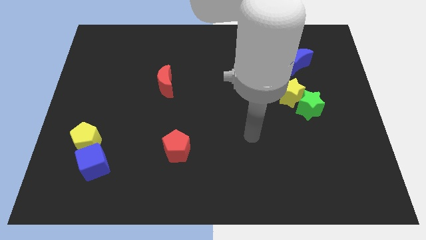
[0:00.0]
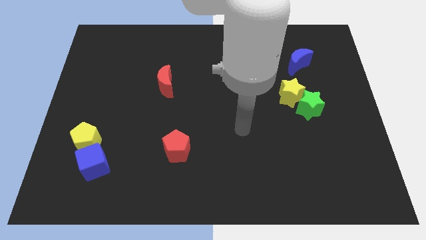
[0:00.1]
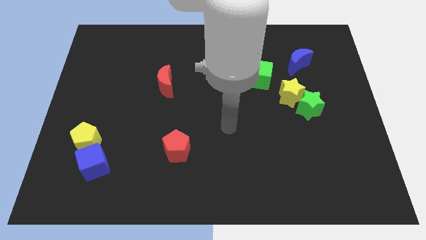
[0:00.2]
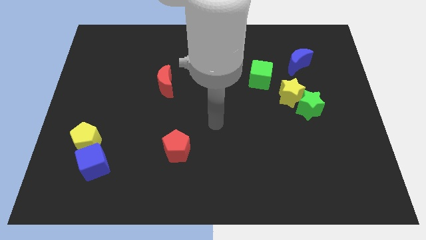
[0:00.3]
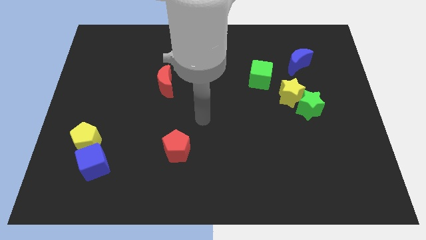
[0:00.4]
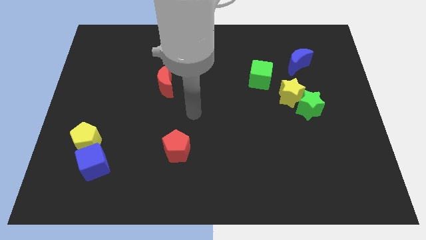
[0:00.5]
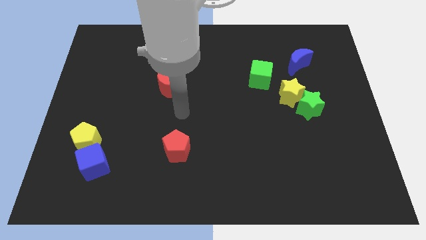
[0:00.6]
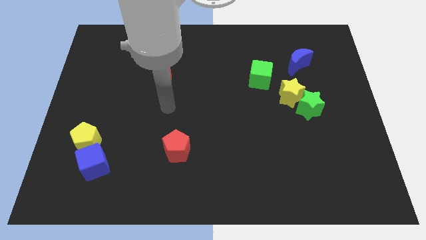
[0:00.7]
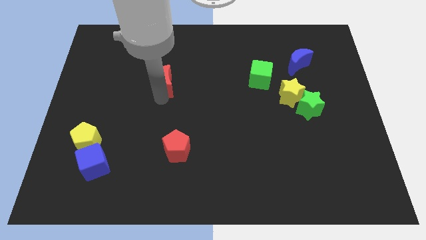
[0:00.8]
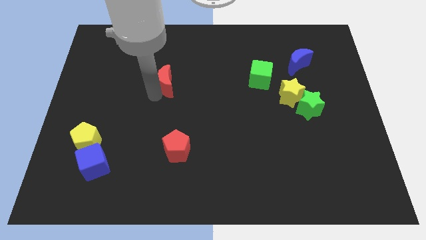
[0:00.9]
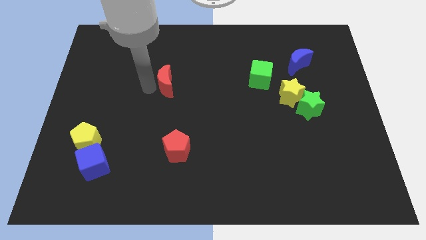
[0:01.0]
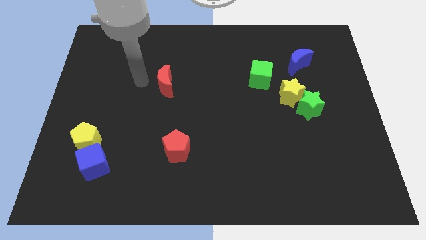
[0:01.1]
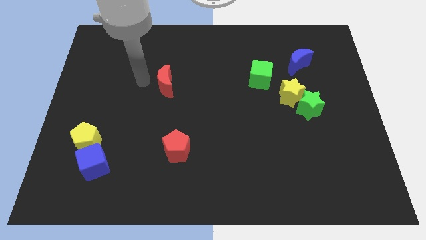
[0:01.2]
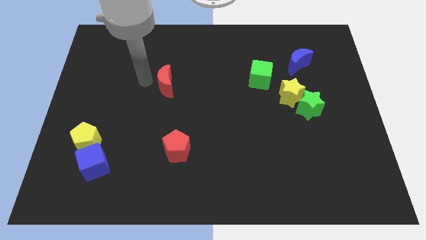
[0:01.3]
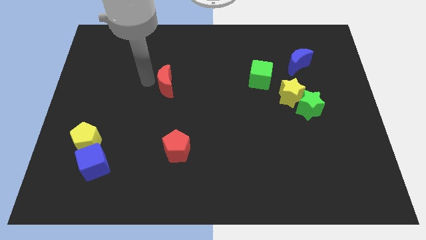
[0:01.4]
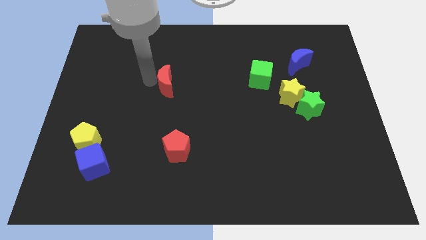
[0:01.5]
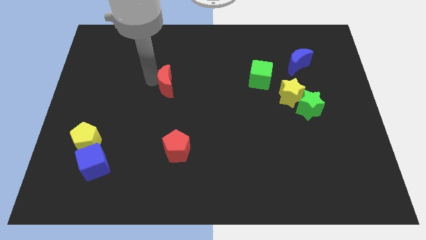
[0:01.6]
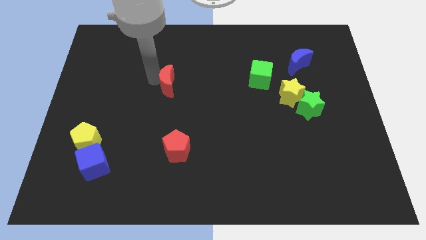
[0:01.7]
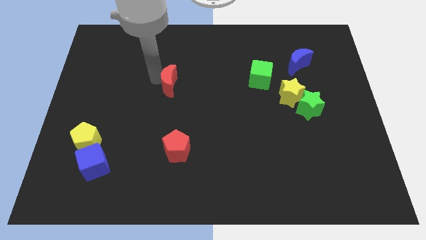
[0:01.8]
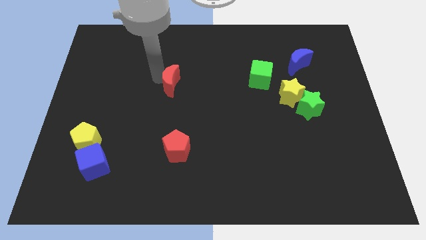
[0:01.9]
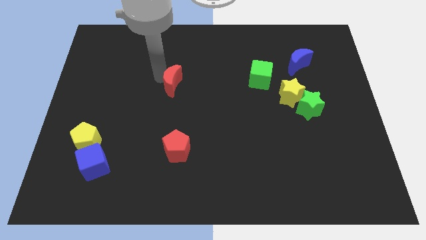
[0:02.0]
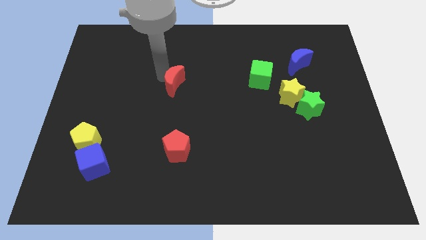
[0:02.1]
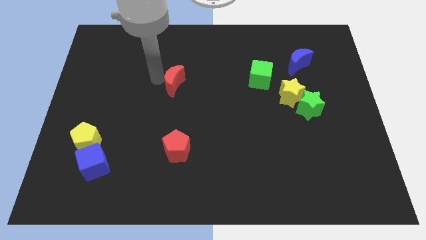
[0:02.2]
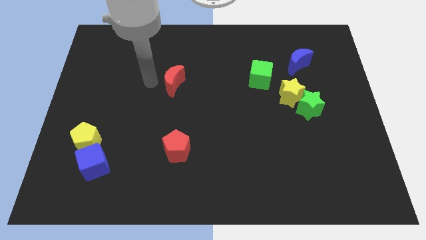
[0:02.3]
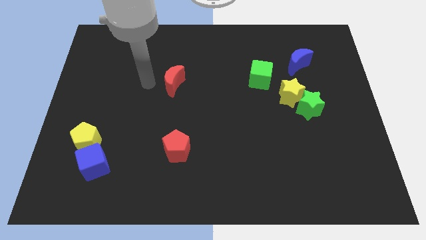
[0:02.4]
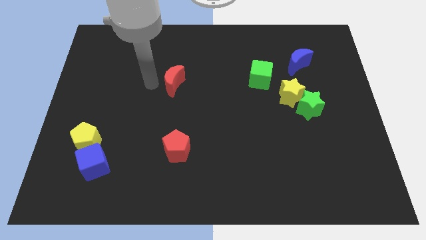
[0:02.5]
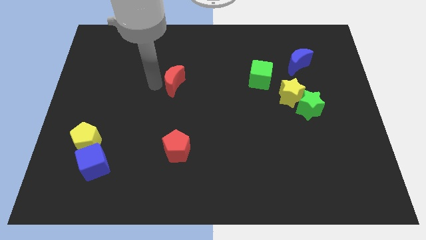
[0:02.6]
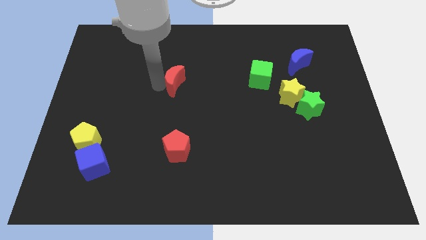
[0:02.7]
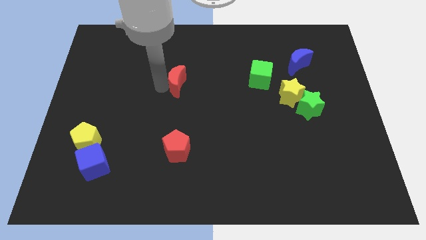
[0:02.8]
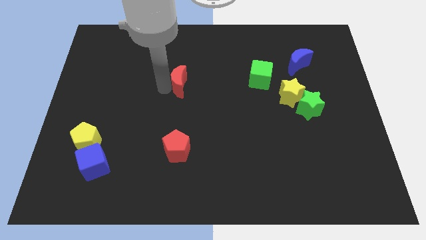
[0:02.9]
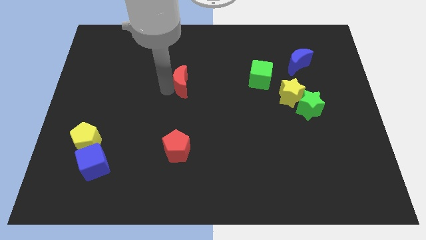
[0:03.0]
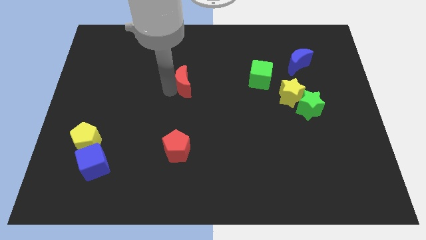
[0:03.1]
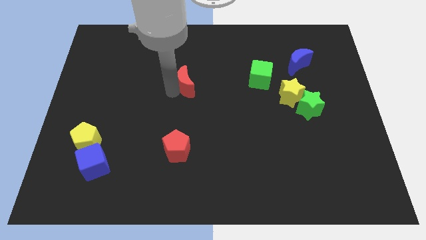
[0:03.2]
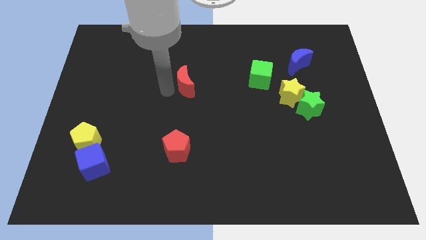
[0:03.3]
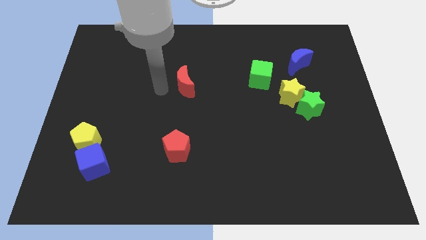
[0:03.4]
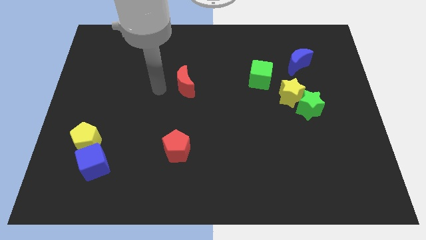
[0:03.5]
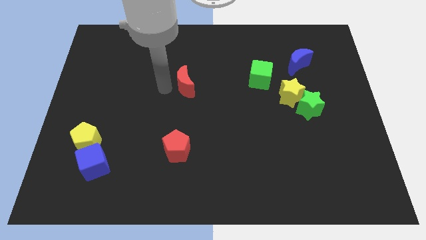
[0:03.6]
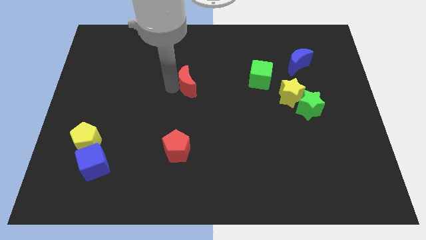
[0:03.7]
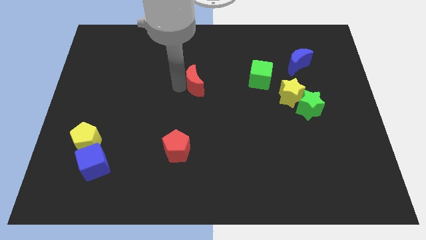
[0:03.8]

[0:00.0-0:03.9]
slightly push the red moon to the right

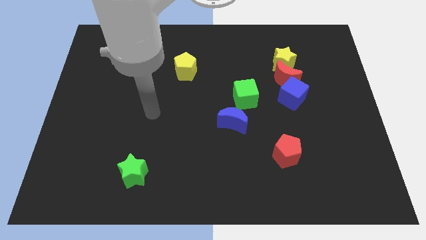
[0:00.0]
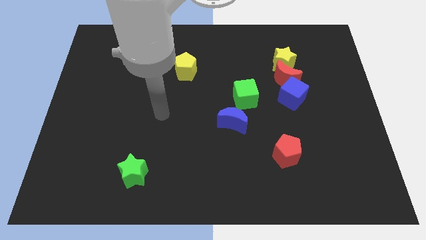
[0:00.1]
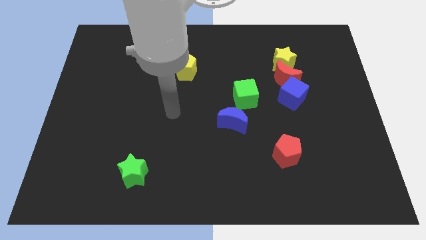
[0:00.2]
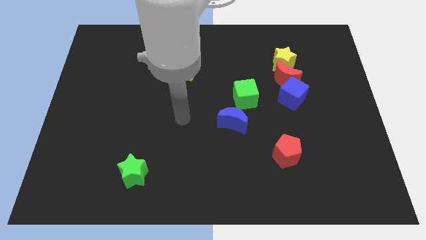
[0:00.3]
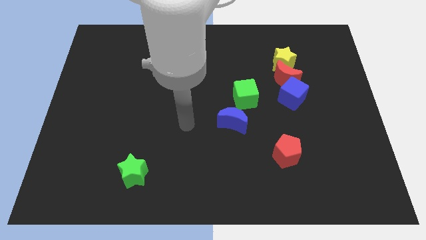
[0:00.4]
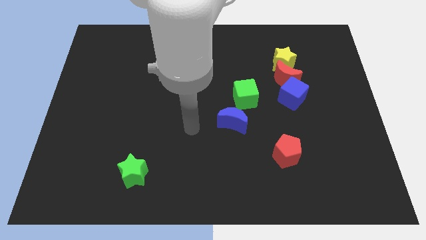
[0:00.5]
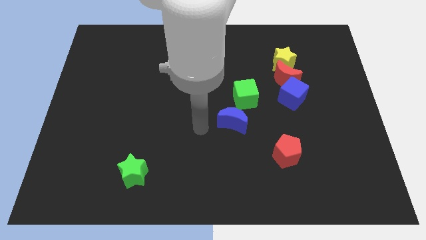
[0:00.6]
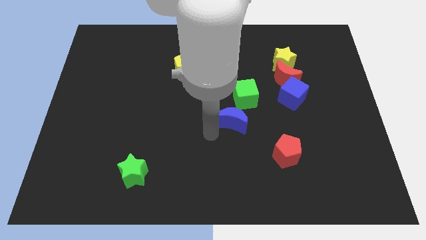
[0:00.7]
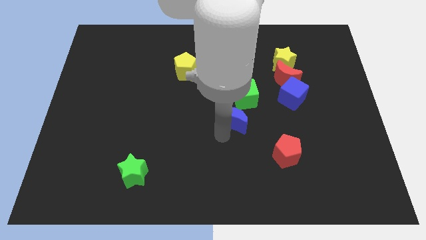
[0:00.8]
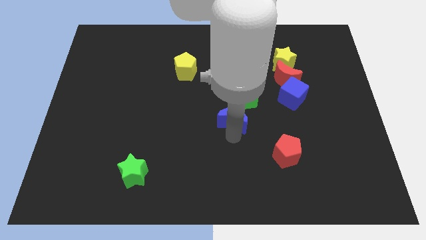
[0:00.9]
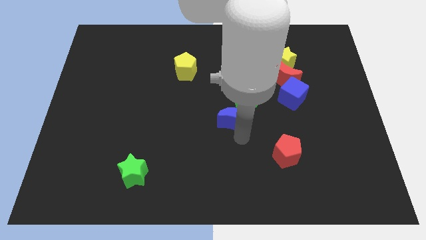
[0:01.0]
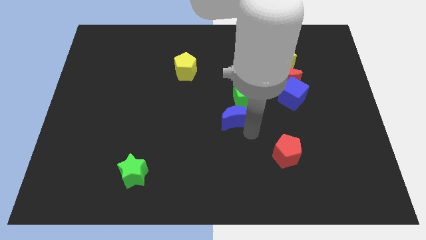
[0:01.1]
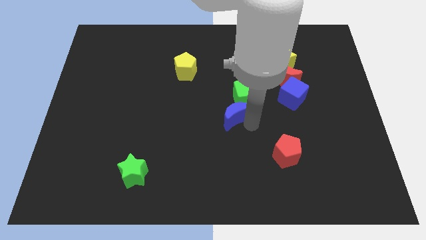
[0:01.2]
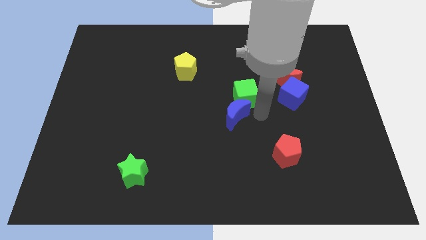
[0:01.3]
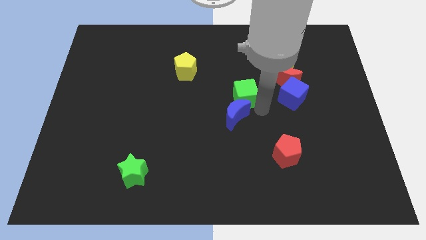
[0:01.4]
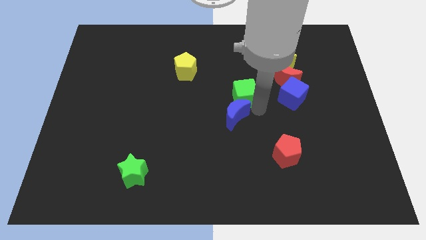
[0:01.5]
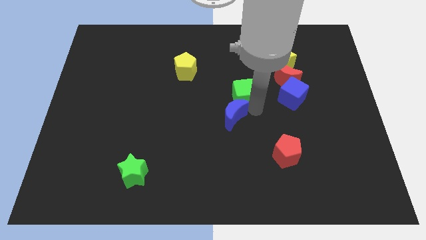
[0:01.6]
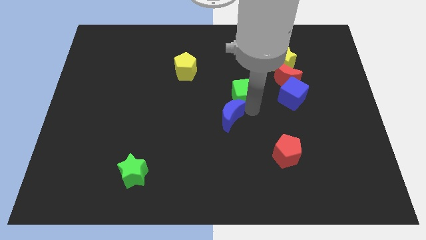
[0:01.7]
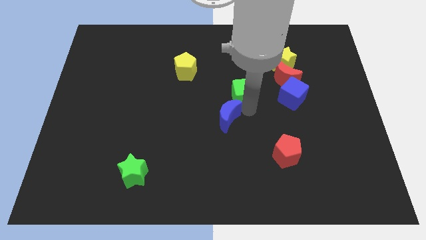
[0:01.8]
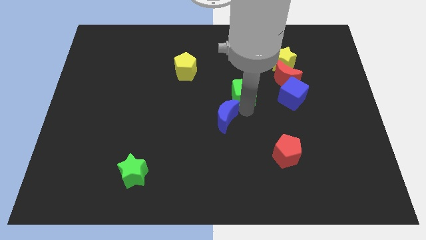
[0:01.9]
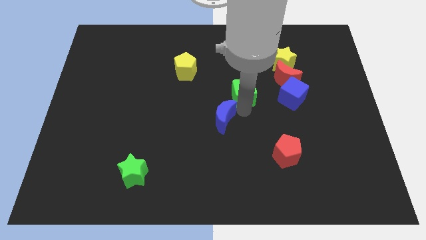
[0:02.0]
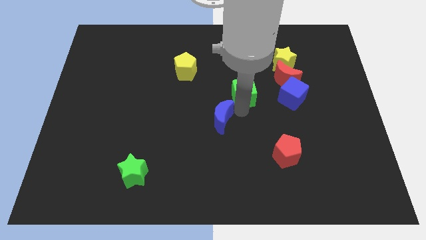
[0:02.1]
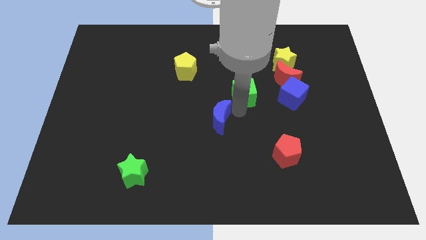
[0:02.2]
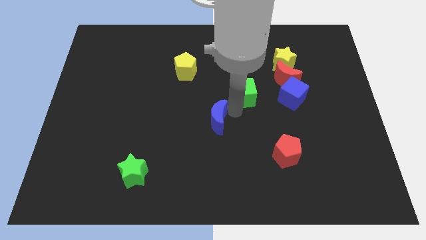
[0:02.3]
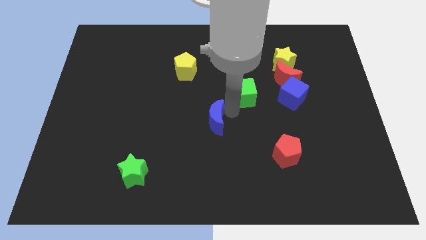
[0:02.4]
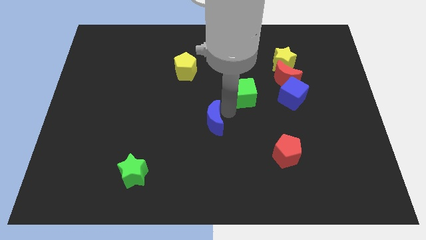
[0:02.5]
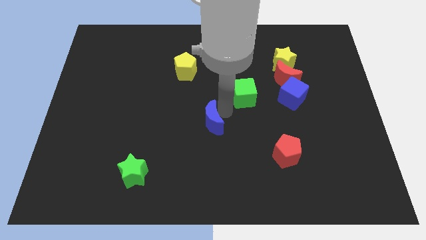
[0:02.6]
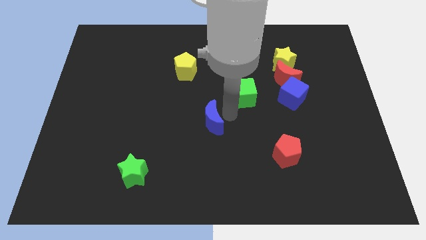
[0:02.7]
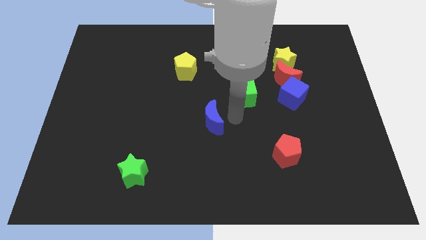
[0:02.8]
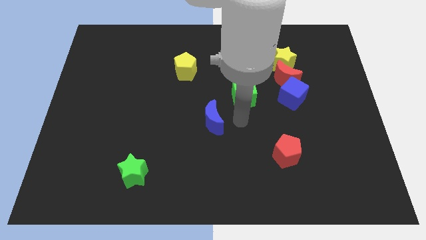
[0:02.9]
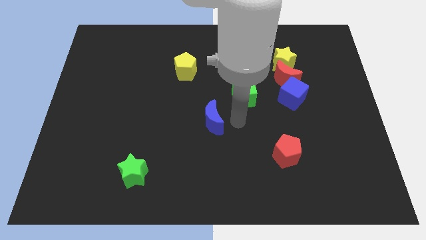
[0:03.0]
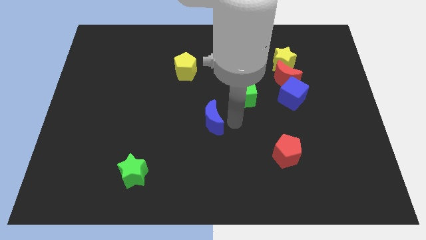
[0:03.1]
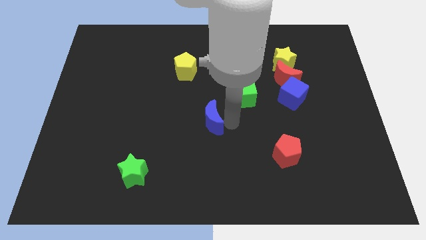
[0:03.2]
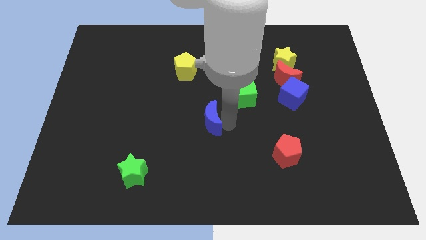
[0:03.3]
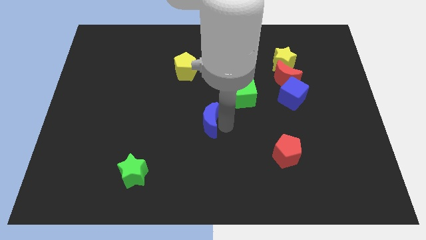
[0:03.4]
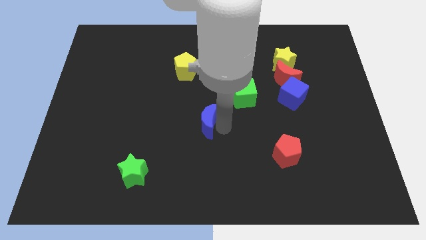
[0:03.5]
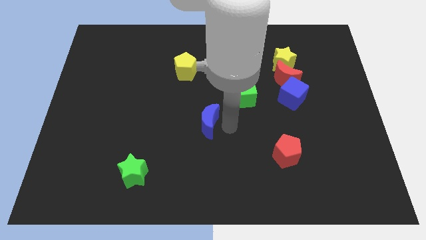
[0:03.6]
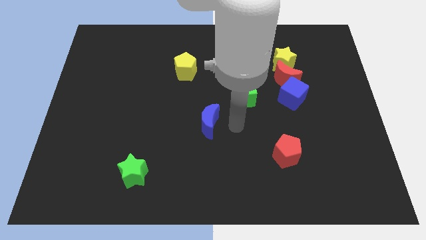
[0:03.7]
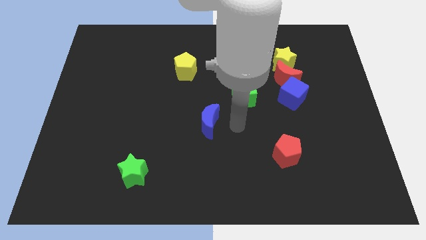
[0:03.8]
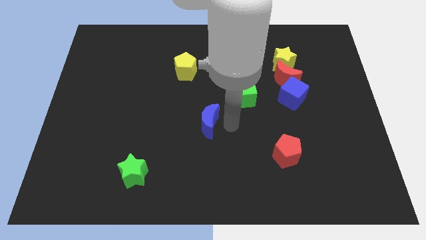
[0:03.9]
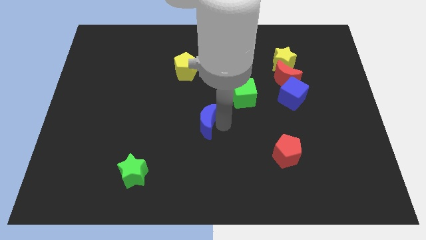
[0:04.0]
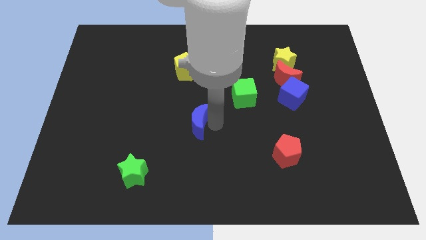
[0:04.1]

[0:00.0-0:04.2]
slightly move the blue moon to the left

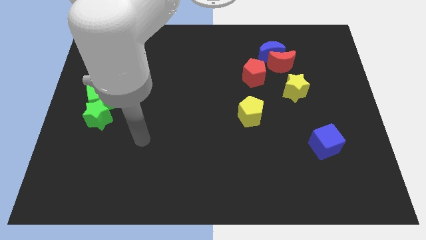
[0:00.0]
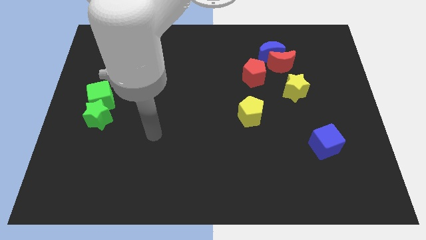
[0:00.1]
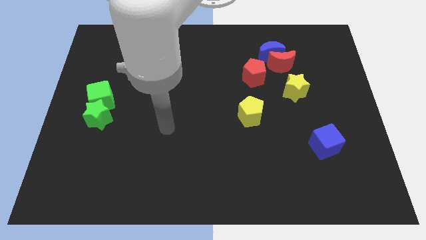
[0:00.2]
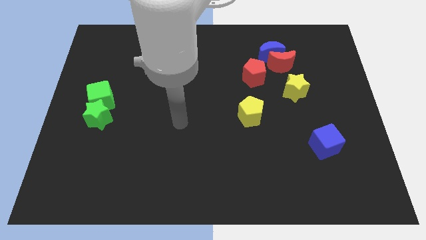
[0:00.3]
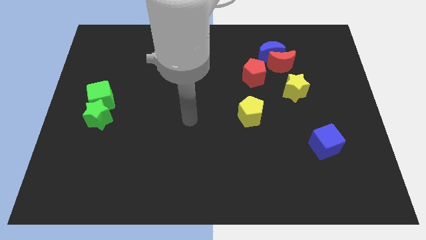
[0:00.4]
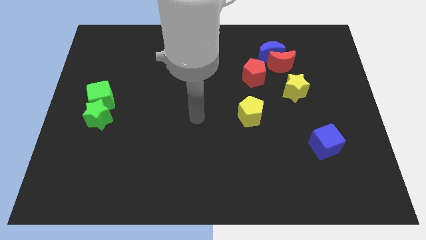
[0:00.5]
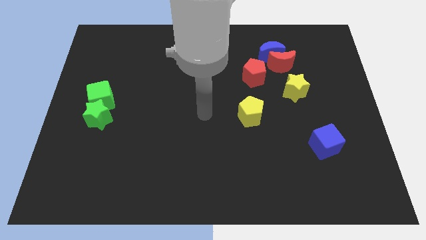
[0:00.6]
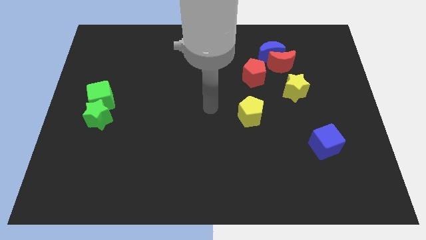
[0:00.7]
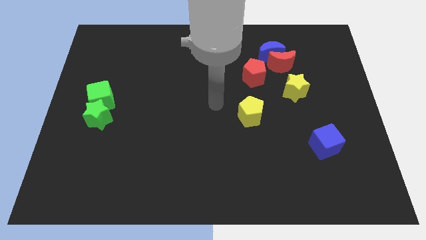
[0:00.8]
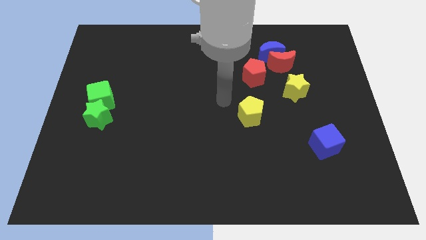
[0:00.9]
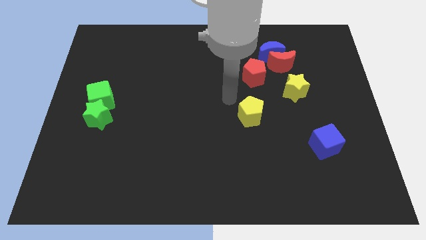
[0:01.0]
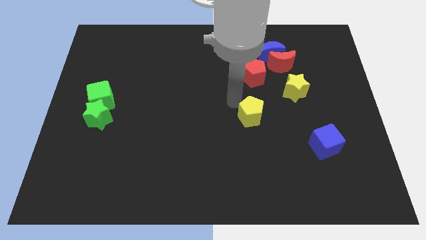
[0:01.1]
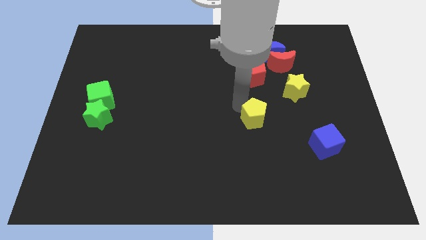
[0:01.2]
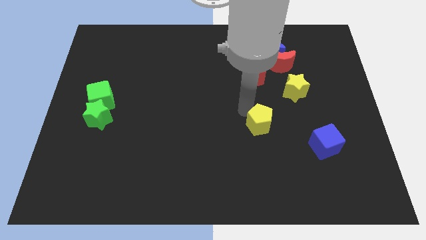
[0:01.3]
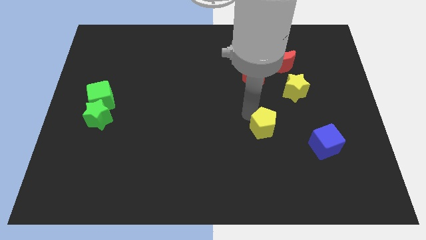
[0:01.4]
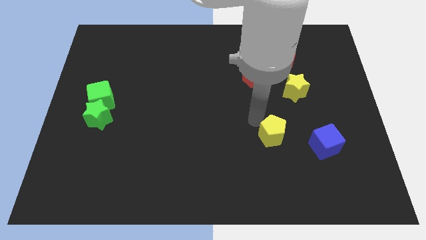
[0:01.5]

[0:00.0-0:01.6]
move the yellow pentagon diagonally downwards and to the right slightly
